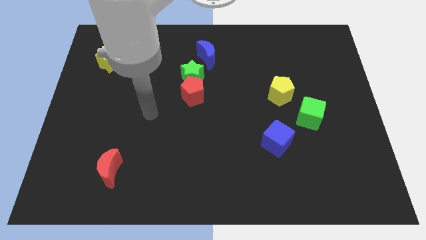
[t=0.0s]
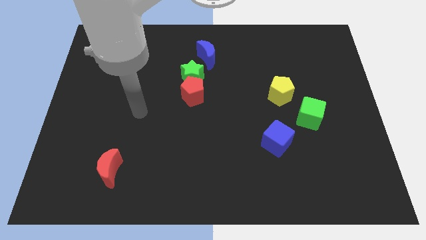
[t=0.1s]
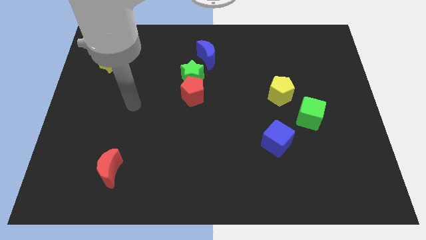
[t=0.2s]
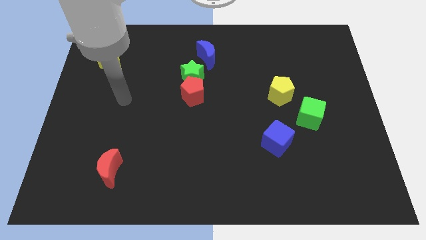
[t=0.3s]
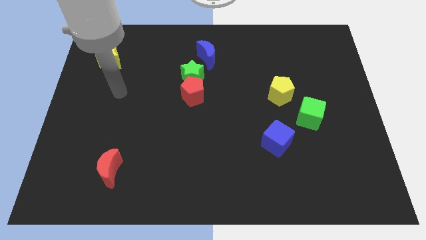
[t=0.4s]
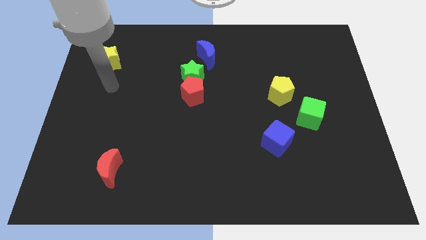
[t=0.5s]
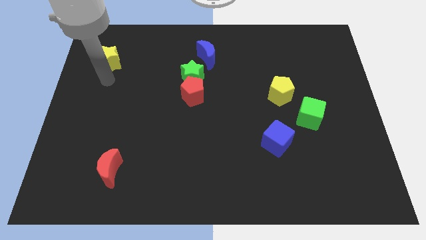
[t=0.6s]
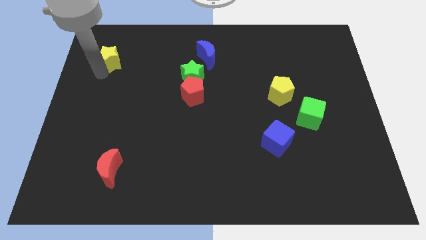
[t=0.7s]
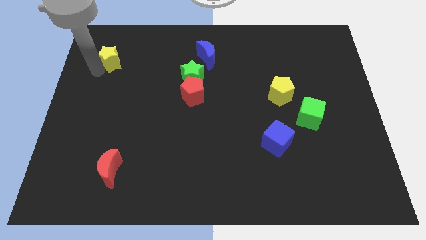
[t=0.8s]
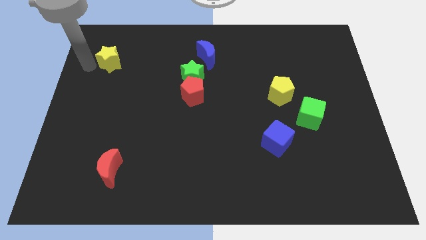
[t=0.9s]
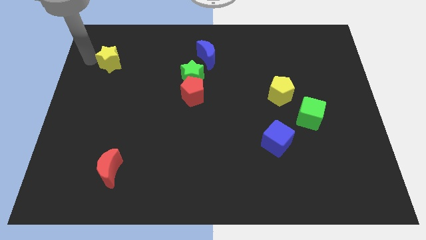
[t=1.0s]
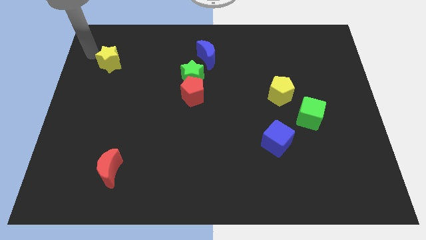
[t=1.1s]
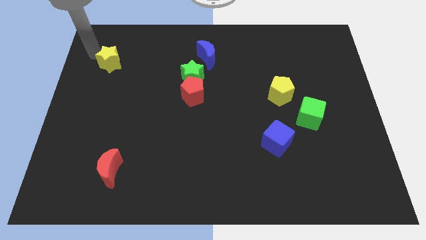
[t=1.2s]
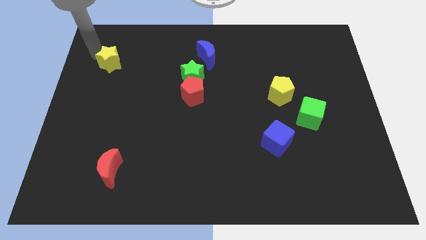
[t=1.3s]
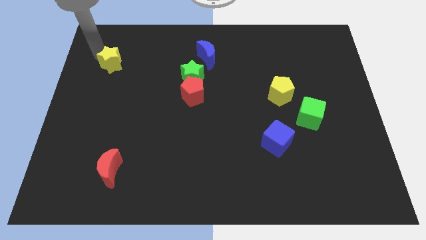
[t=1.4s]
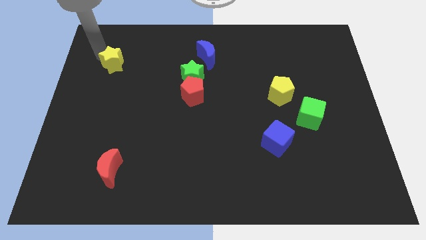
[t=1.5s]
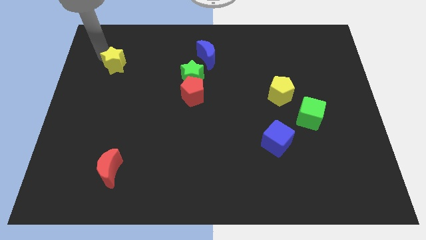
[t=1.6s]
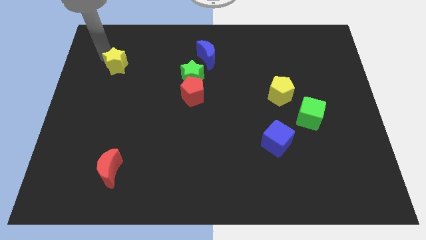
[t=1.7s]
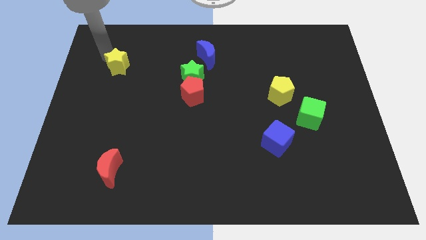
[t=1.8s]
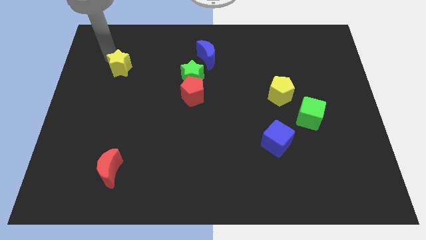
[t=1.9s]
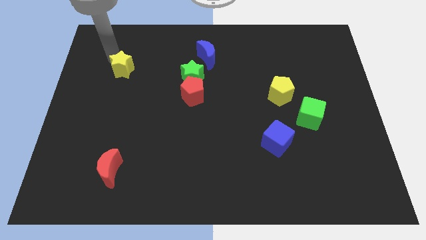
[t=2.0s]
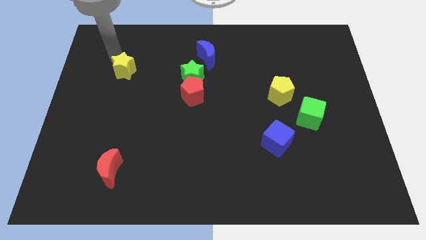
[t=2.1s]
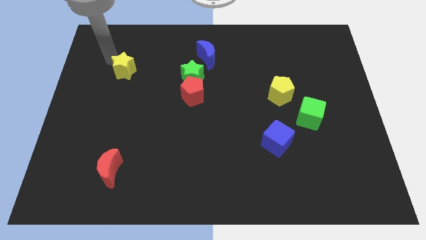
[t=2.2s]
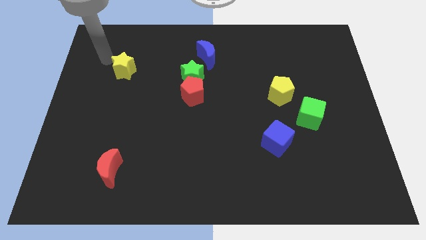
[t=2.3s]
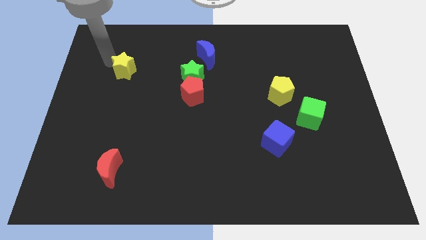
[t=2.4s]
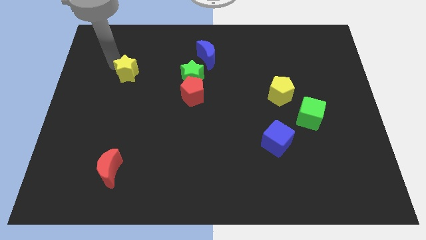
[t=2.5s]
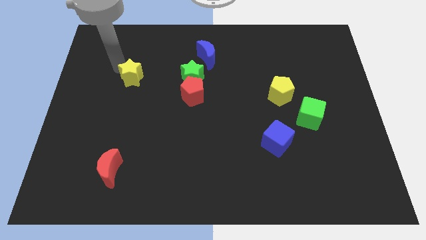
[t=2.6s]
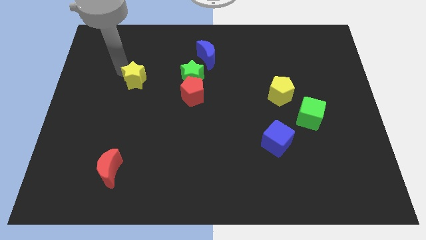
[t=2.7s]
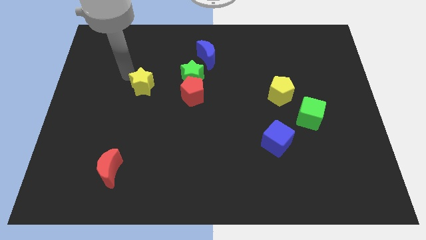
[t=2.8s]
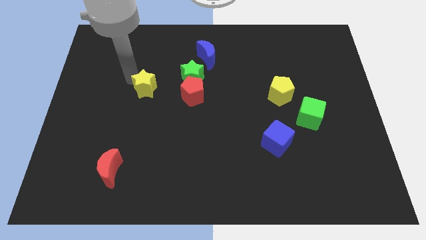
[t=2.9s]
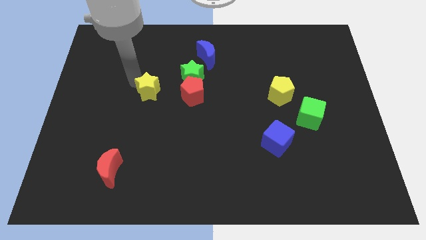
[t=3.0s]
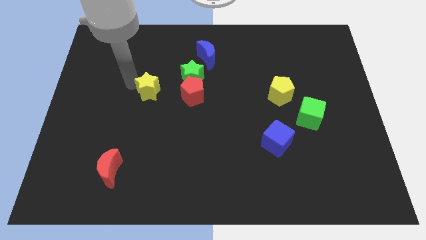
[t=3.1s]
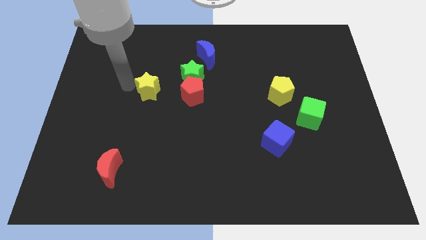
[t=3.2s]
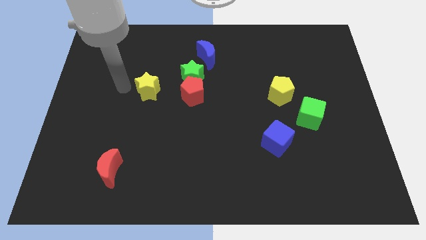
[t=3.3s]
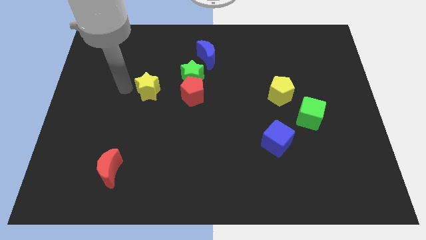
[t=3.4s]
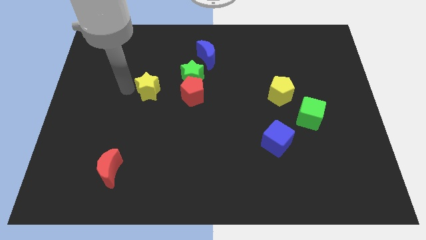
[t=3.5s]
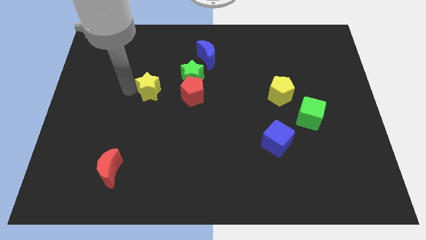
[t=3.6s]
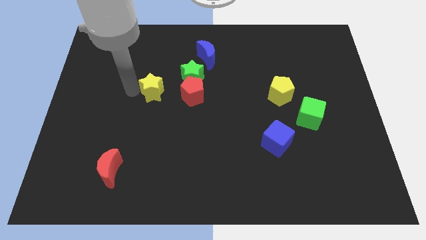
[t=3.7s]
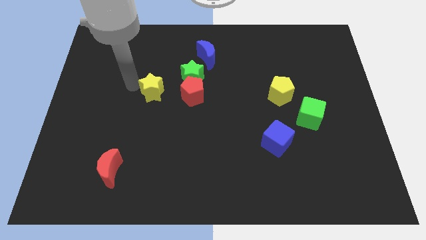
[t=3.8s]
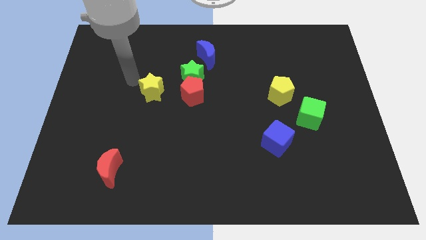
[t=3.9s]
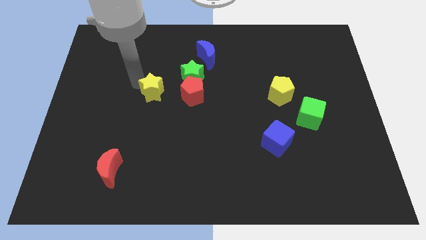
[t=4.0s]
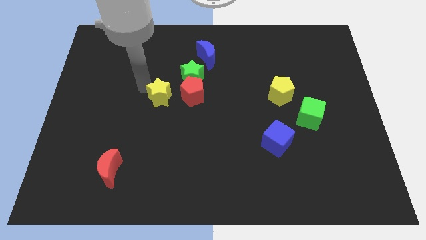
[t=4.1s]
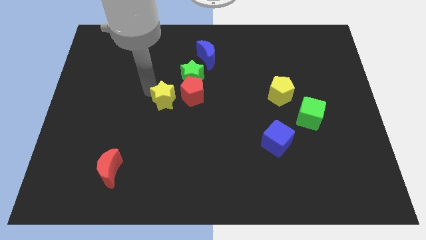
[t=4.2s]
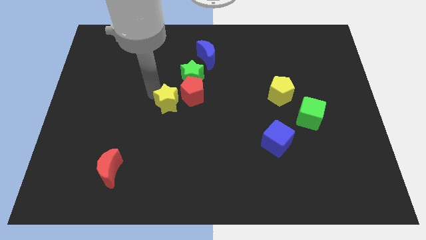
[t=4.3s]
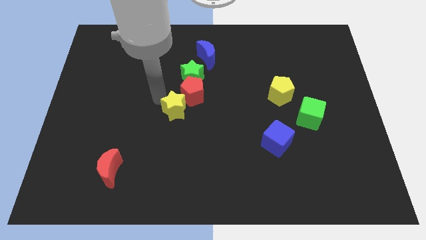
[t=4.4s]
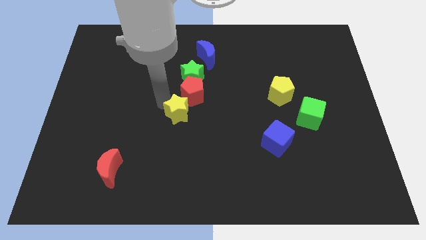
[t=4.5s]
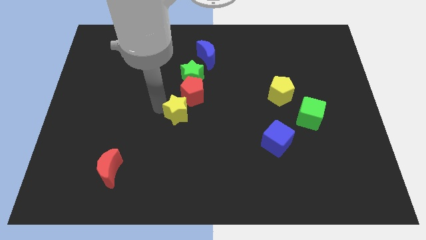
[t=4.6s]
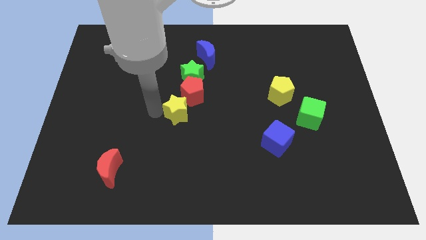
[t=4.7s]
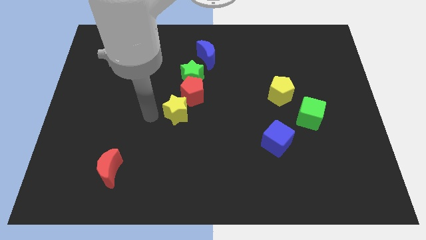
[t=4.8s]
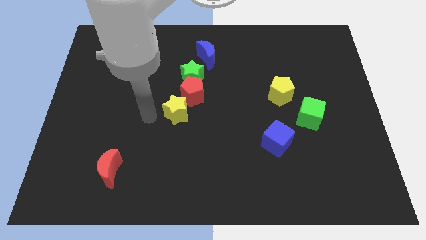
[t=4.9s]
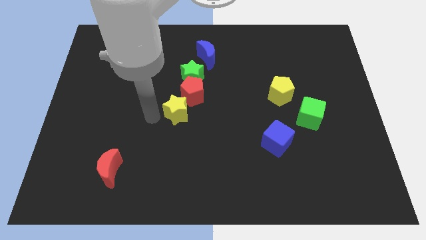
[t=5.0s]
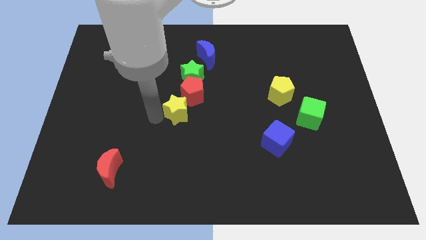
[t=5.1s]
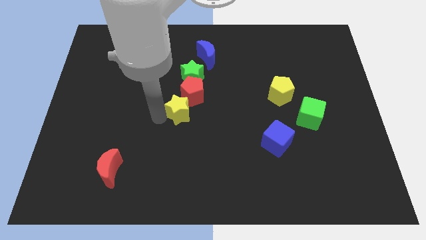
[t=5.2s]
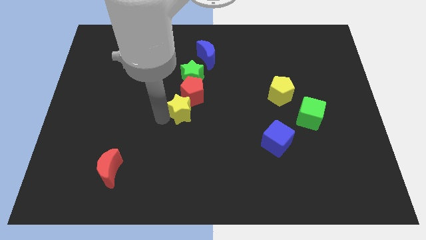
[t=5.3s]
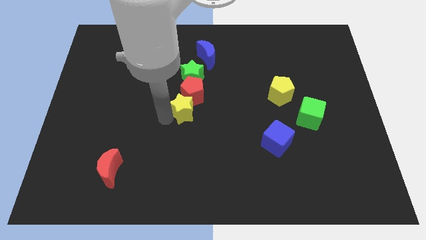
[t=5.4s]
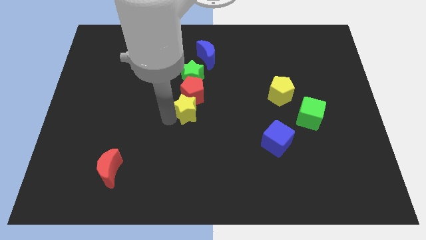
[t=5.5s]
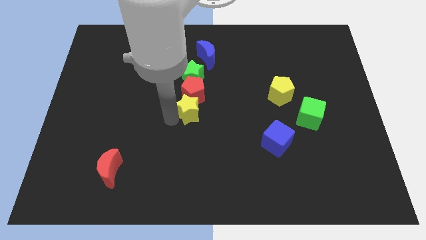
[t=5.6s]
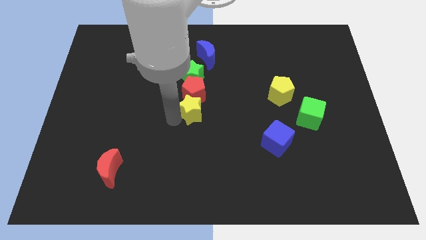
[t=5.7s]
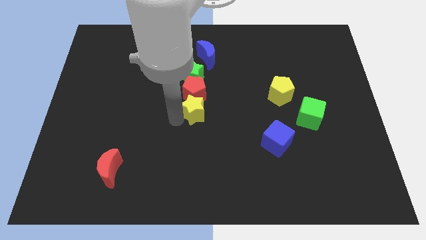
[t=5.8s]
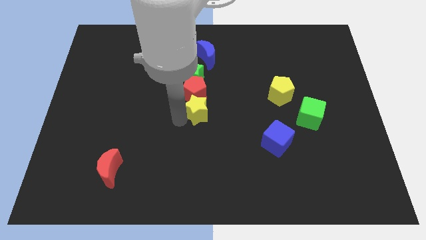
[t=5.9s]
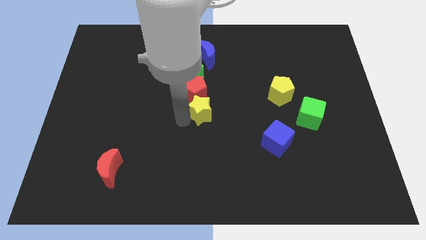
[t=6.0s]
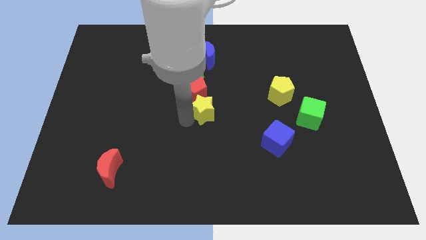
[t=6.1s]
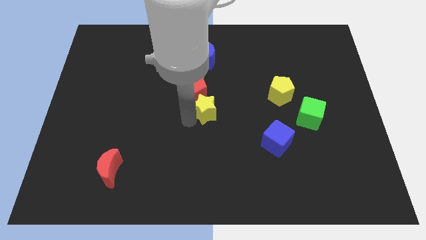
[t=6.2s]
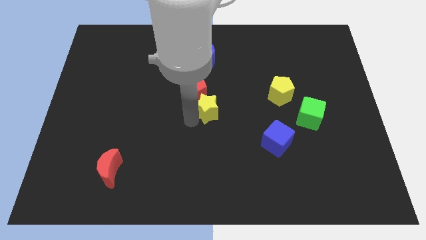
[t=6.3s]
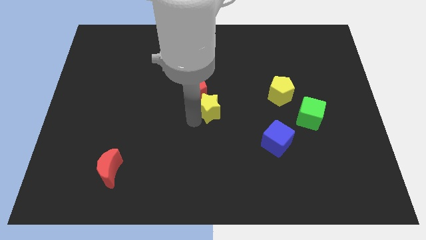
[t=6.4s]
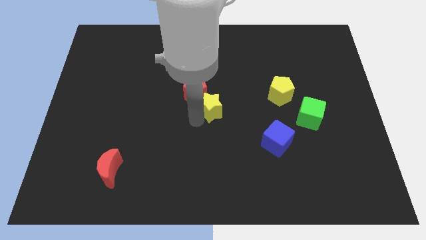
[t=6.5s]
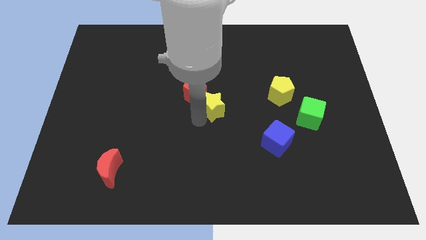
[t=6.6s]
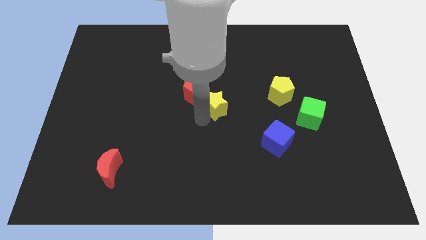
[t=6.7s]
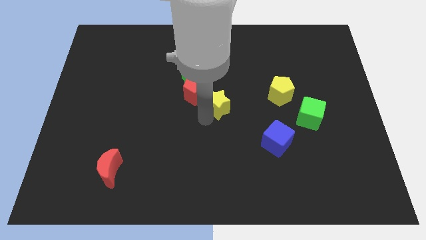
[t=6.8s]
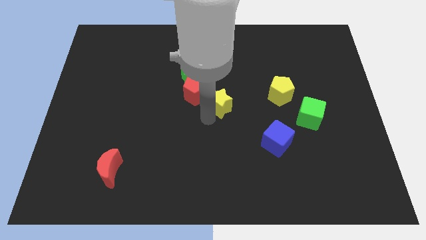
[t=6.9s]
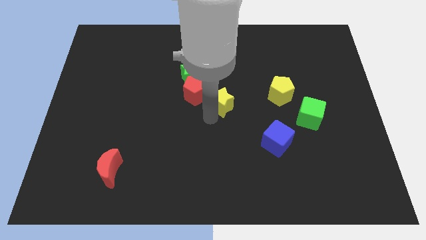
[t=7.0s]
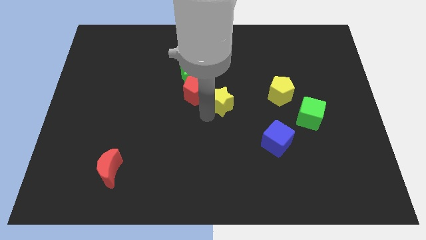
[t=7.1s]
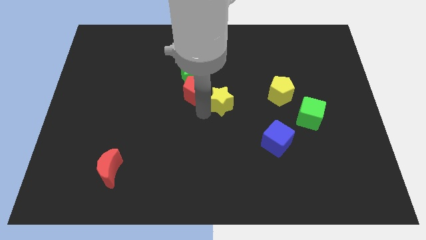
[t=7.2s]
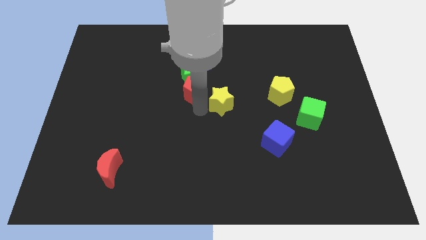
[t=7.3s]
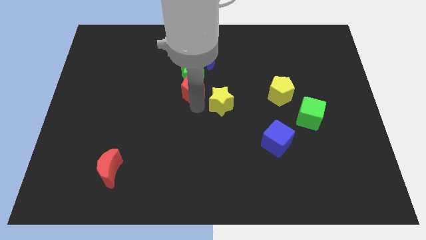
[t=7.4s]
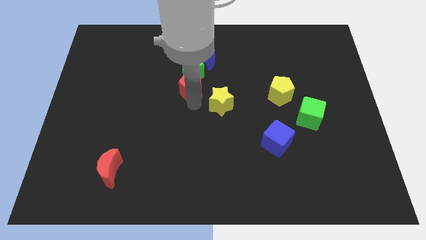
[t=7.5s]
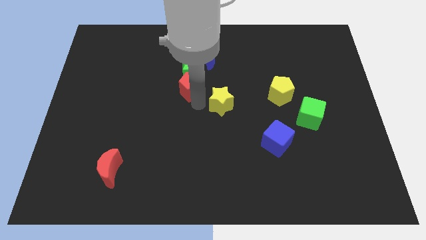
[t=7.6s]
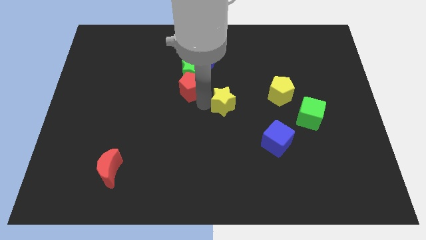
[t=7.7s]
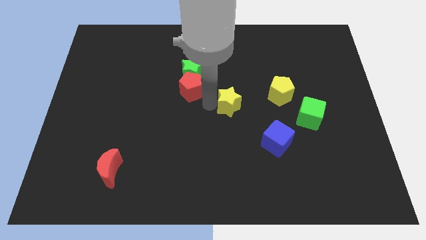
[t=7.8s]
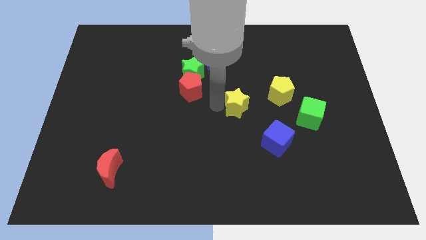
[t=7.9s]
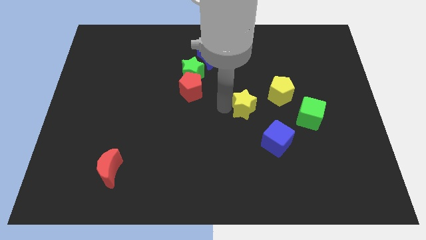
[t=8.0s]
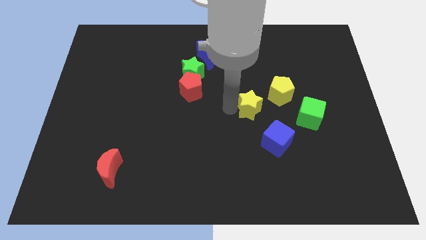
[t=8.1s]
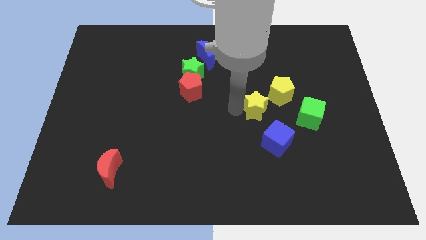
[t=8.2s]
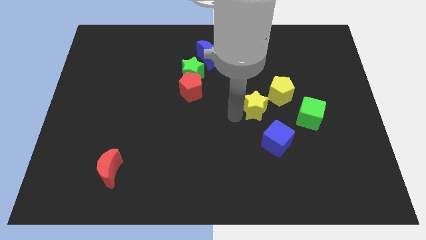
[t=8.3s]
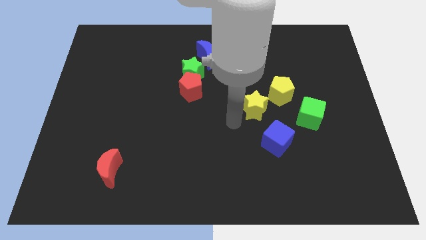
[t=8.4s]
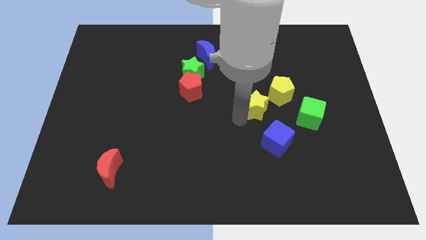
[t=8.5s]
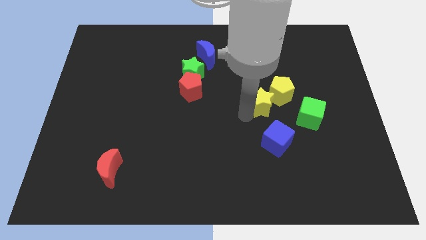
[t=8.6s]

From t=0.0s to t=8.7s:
put the yellow star next to the yellow pentagon
